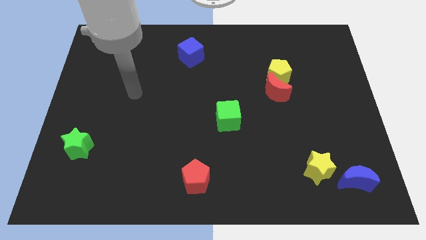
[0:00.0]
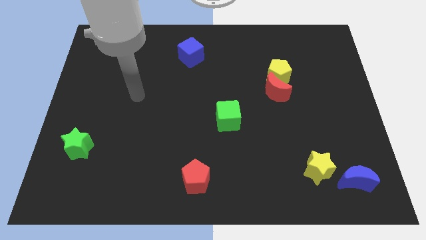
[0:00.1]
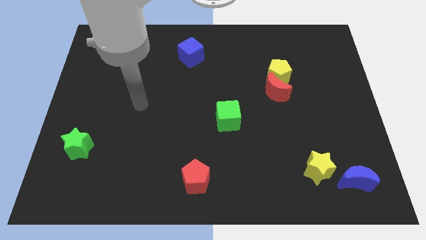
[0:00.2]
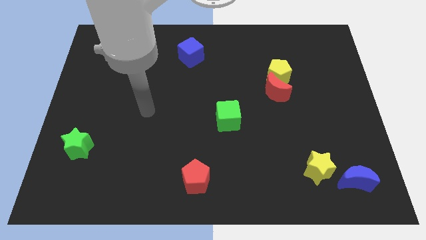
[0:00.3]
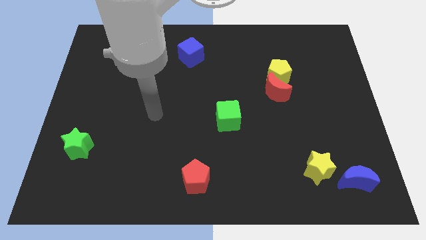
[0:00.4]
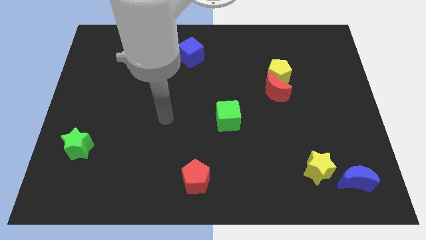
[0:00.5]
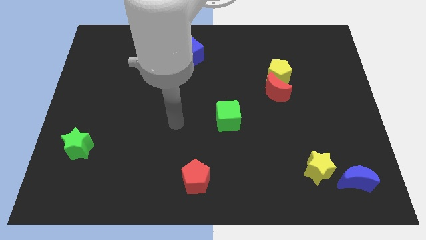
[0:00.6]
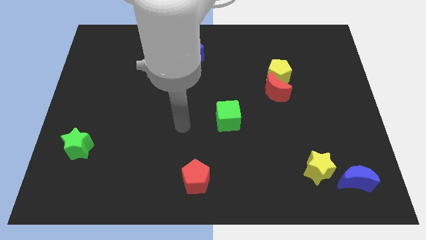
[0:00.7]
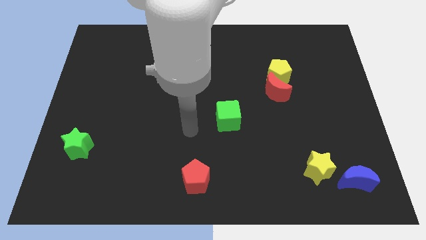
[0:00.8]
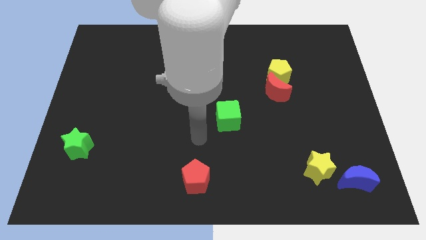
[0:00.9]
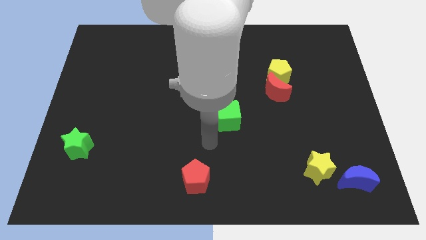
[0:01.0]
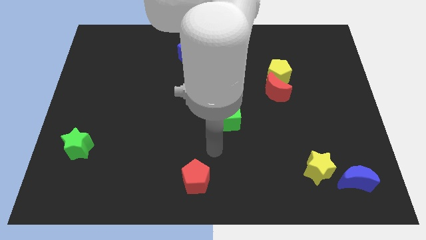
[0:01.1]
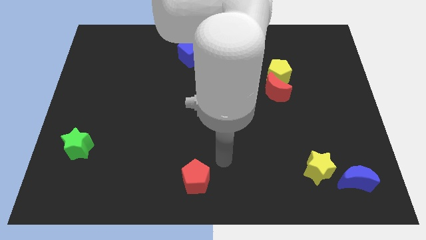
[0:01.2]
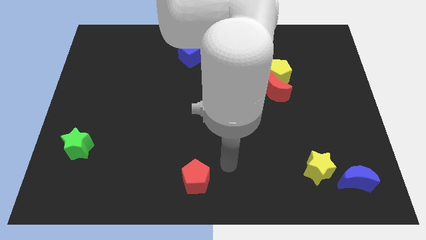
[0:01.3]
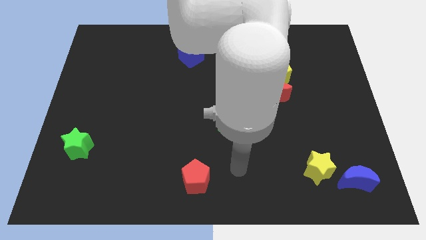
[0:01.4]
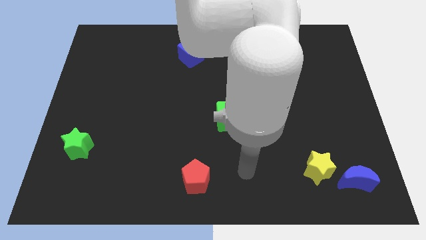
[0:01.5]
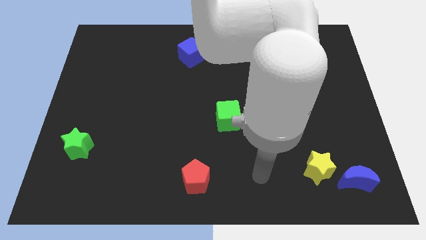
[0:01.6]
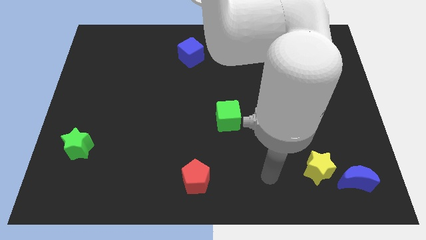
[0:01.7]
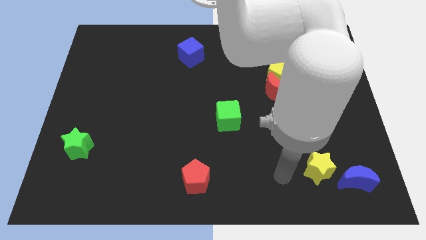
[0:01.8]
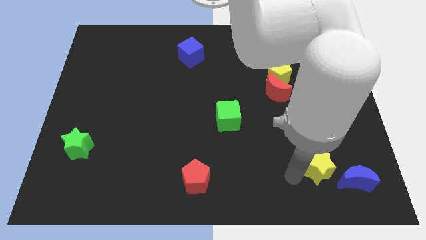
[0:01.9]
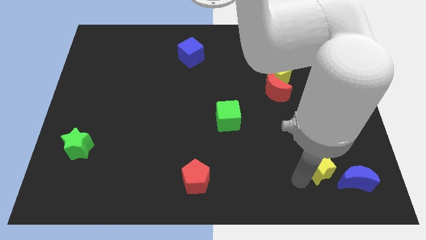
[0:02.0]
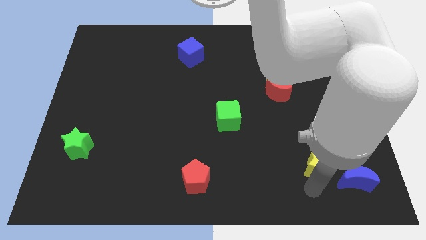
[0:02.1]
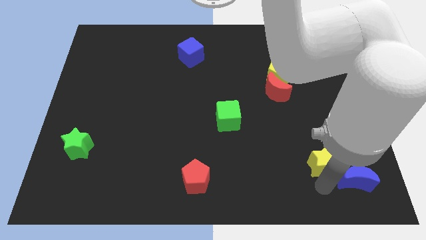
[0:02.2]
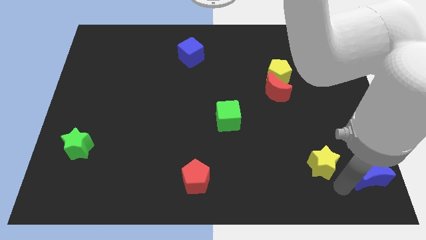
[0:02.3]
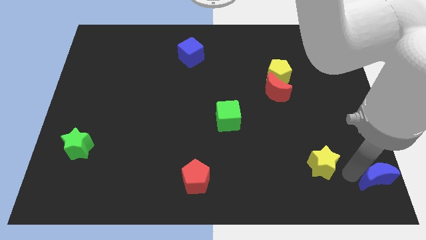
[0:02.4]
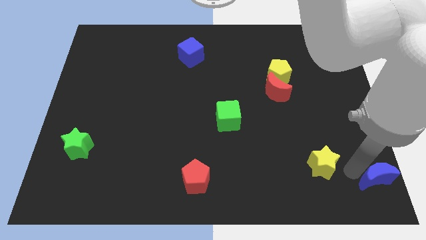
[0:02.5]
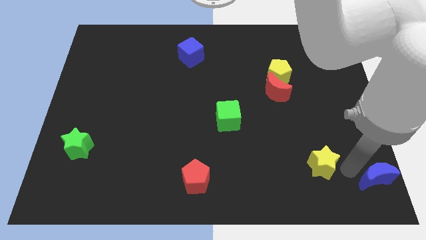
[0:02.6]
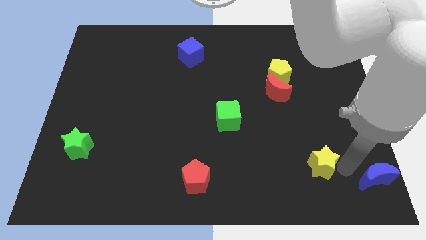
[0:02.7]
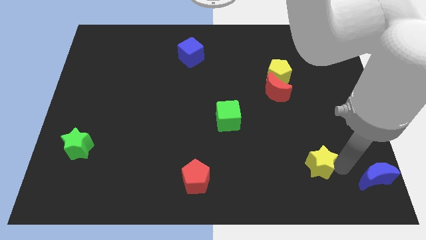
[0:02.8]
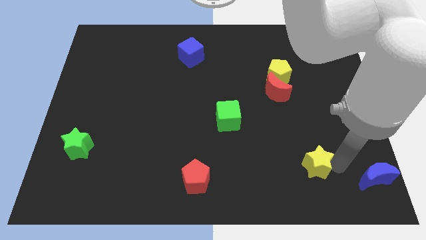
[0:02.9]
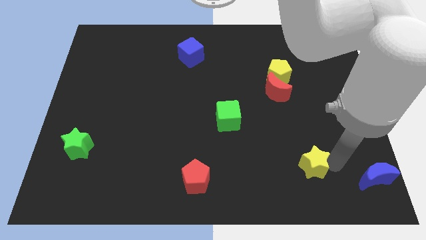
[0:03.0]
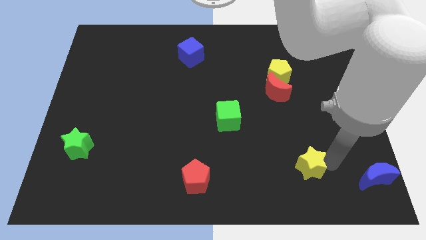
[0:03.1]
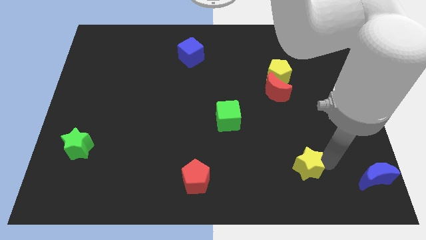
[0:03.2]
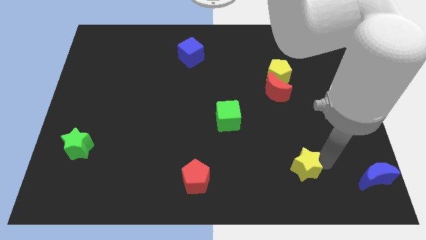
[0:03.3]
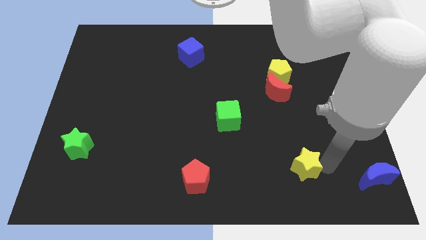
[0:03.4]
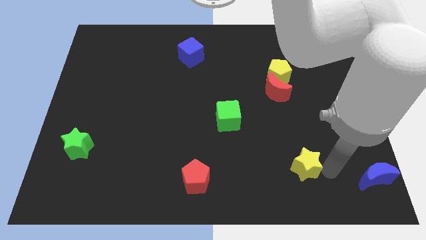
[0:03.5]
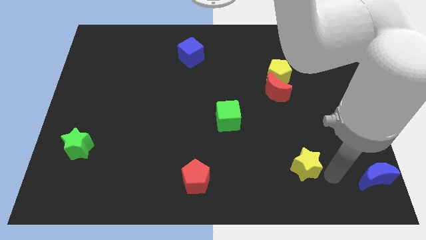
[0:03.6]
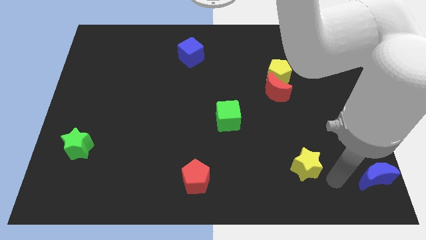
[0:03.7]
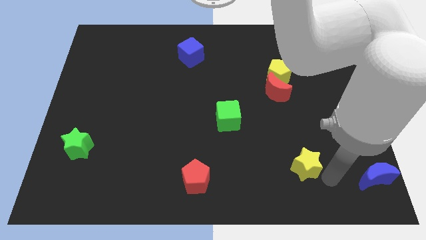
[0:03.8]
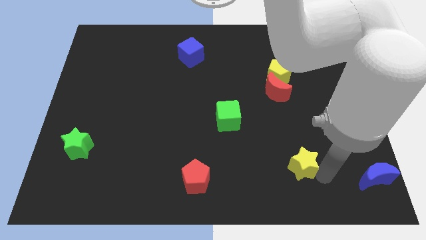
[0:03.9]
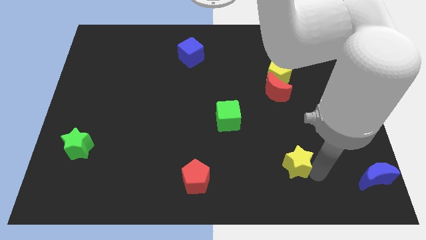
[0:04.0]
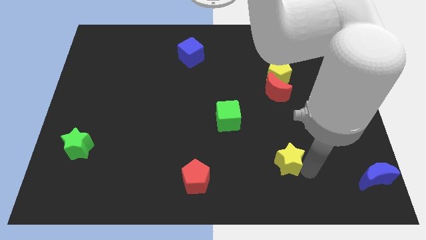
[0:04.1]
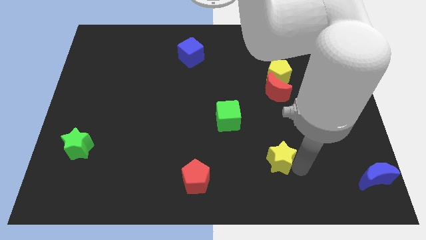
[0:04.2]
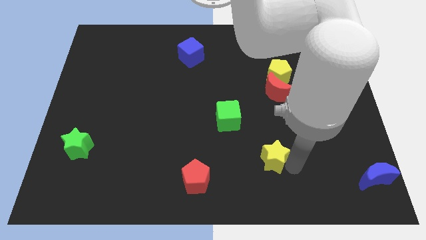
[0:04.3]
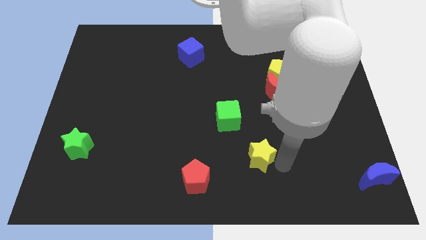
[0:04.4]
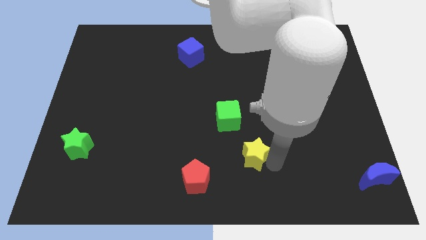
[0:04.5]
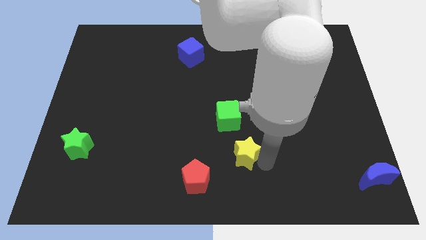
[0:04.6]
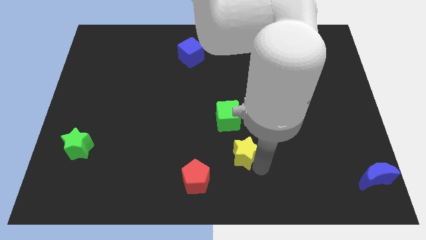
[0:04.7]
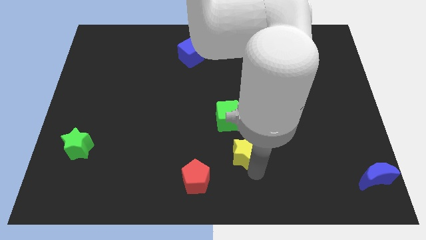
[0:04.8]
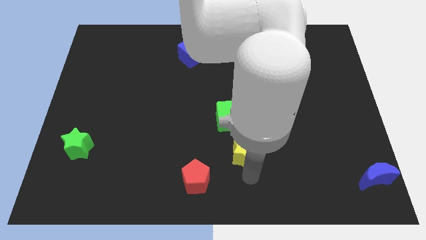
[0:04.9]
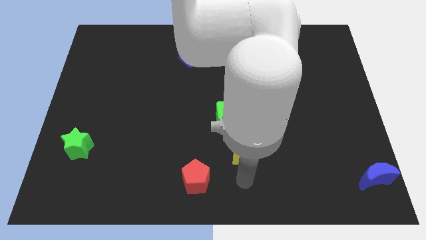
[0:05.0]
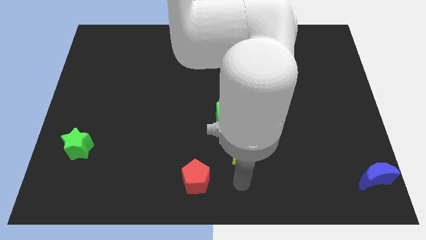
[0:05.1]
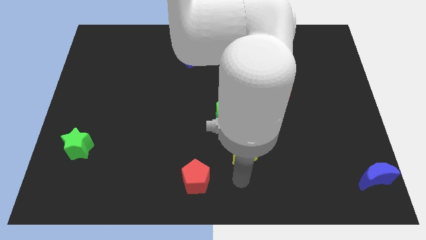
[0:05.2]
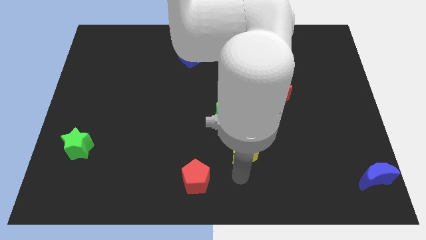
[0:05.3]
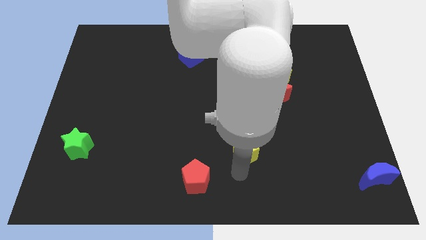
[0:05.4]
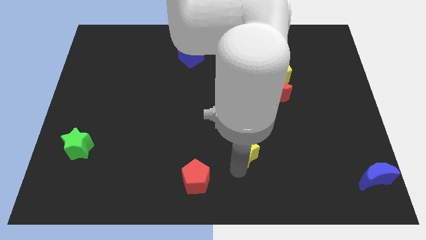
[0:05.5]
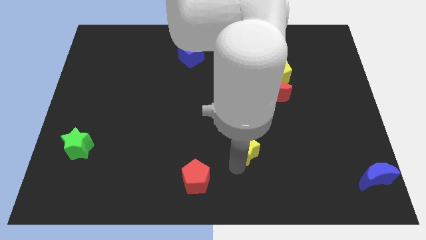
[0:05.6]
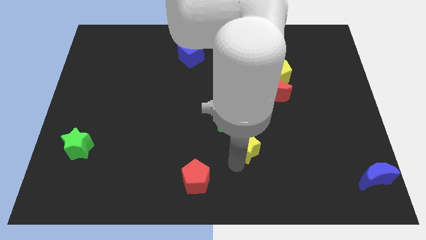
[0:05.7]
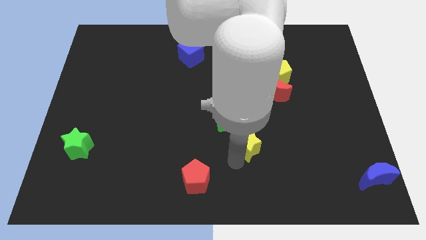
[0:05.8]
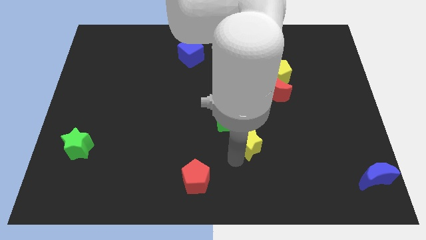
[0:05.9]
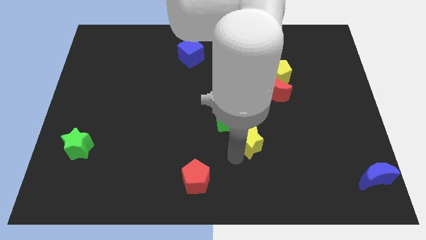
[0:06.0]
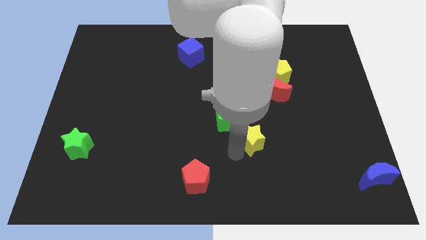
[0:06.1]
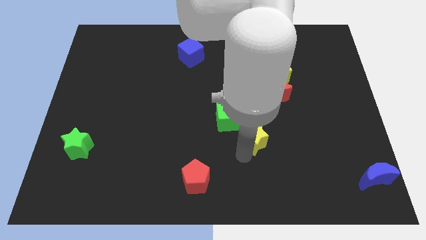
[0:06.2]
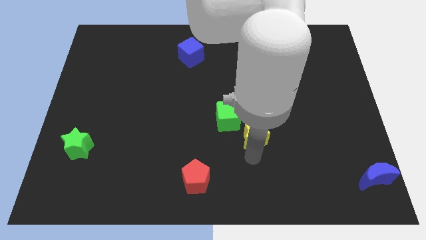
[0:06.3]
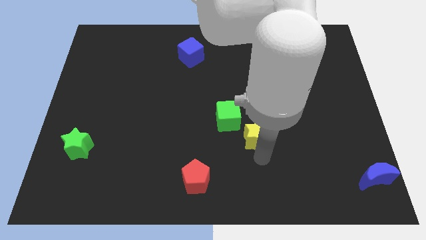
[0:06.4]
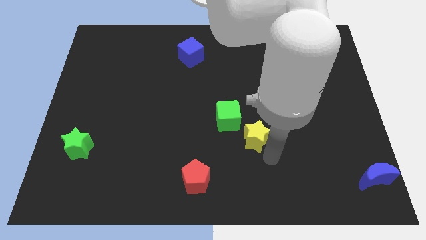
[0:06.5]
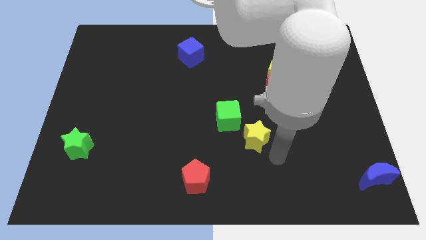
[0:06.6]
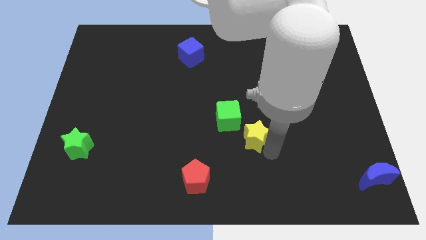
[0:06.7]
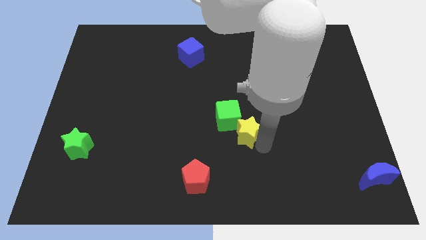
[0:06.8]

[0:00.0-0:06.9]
put the yellow star to the green cube
